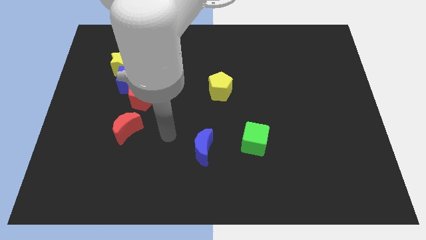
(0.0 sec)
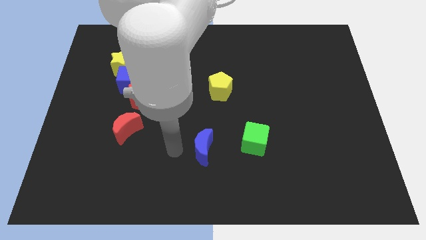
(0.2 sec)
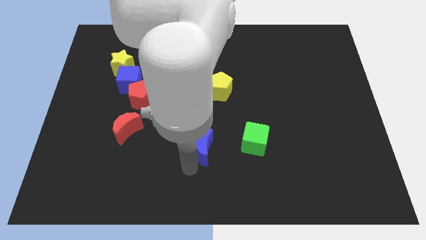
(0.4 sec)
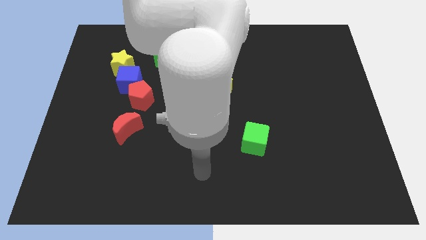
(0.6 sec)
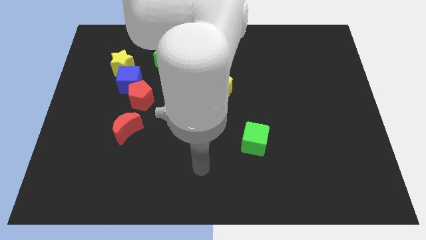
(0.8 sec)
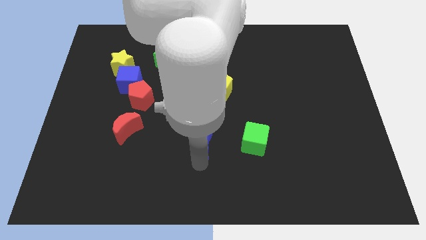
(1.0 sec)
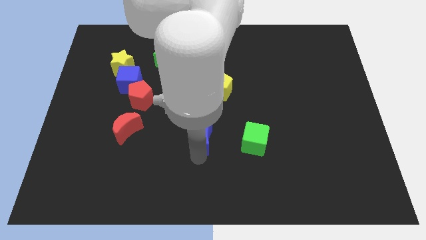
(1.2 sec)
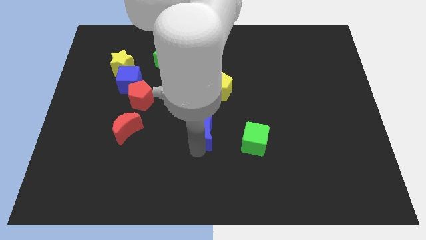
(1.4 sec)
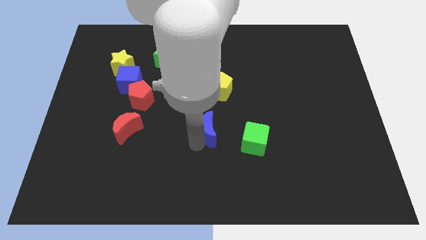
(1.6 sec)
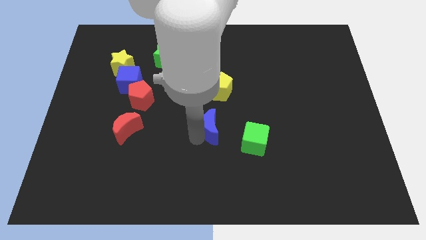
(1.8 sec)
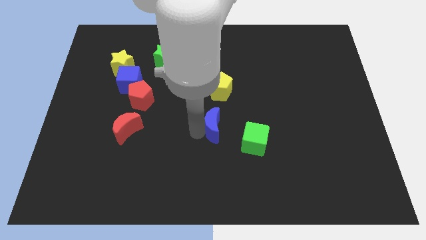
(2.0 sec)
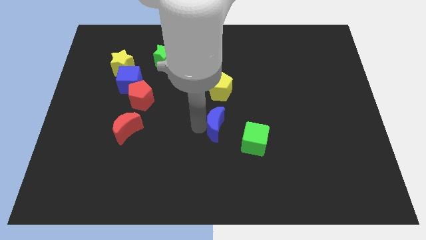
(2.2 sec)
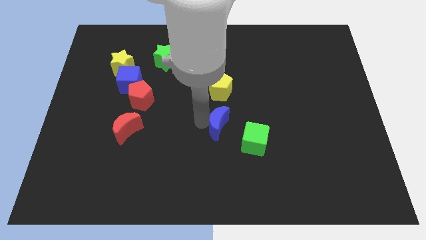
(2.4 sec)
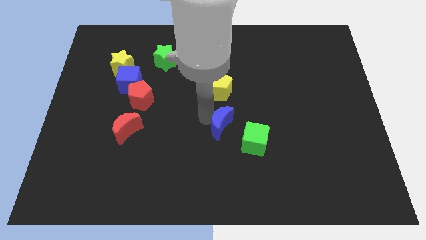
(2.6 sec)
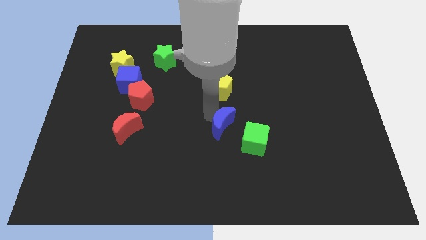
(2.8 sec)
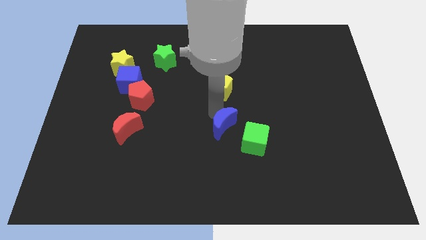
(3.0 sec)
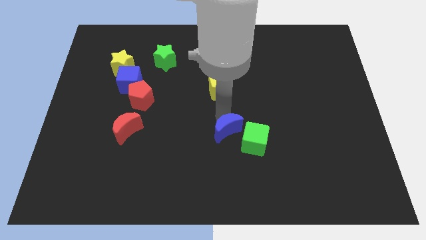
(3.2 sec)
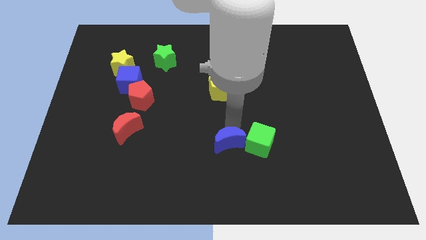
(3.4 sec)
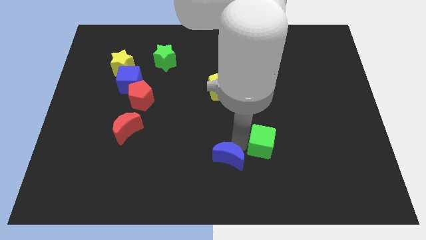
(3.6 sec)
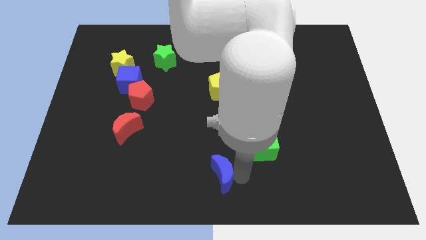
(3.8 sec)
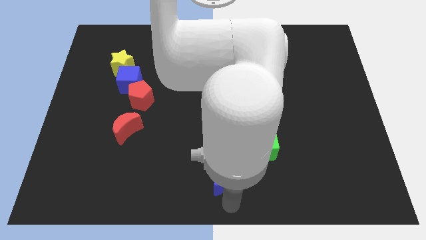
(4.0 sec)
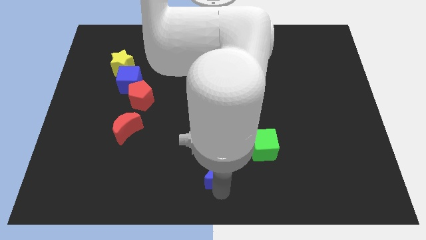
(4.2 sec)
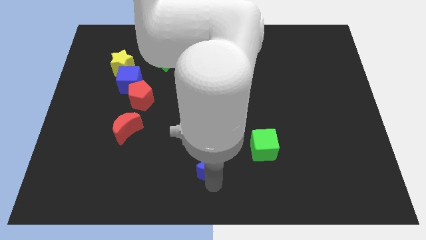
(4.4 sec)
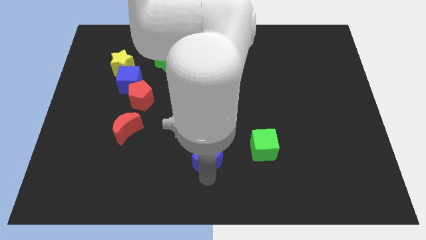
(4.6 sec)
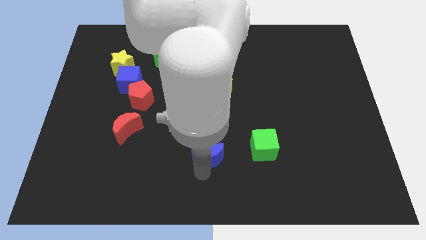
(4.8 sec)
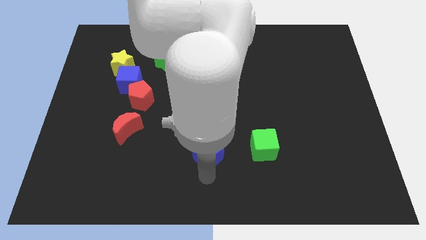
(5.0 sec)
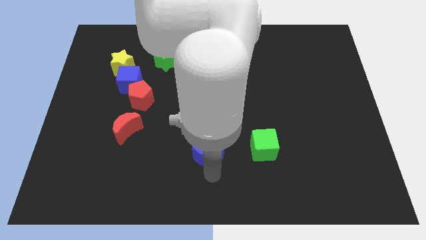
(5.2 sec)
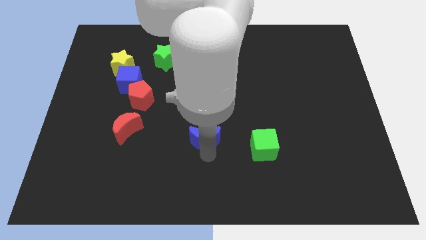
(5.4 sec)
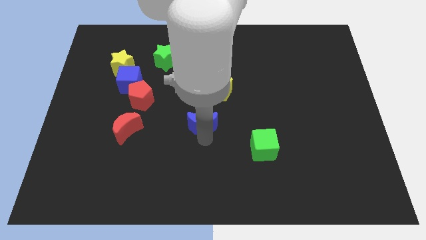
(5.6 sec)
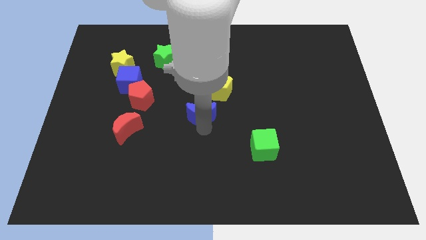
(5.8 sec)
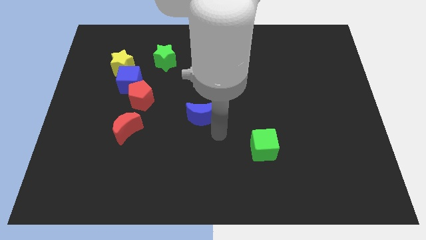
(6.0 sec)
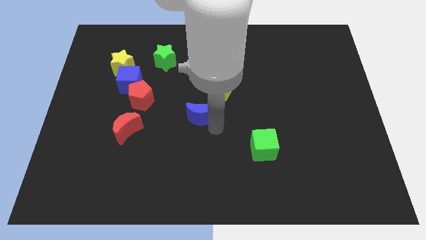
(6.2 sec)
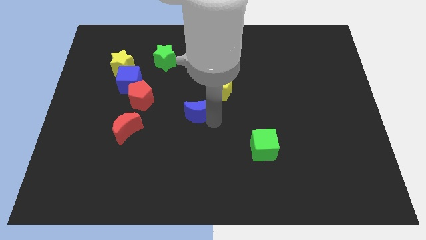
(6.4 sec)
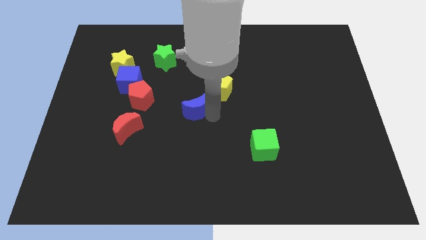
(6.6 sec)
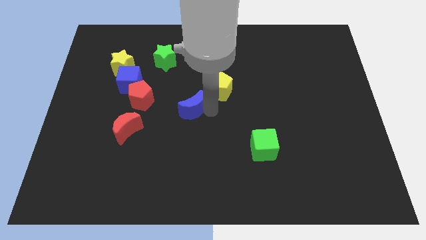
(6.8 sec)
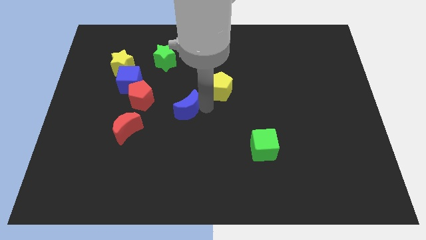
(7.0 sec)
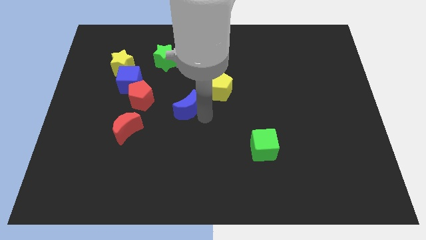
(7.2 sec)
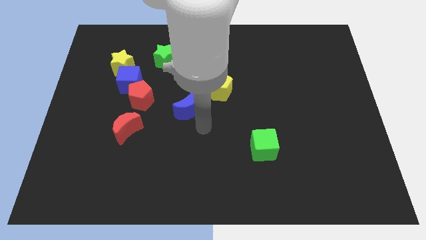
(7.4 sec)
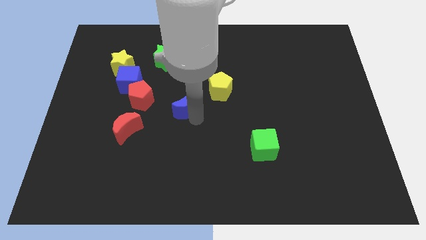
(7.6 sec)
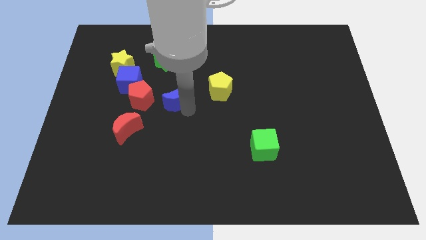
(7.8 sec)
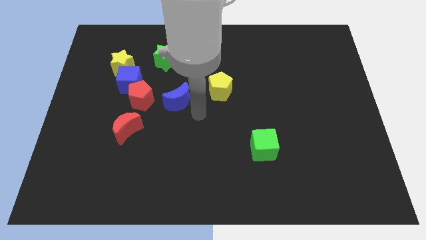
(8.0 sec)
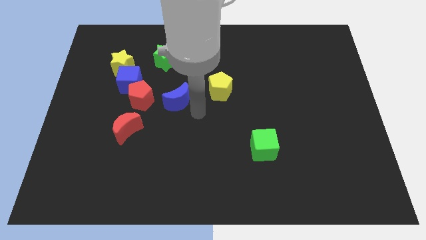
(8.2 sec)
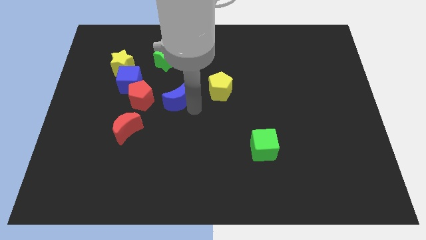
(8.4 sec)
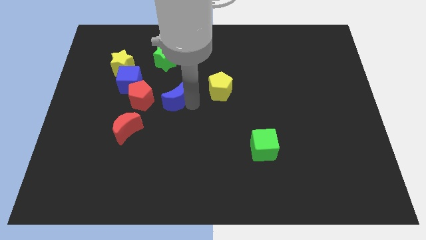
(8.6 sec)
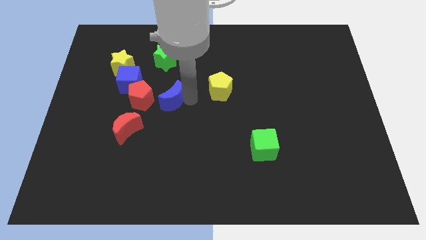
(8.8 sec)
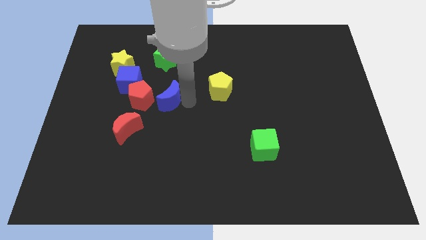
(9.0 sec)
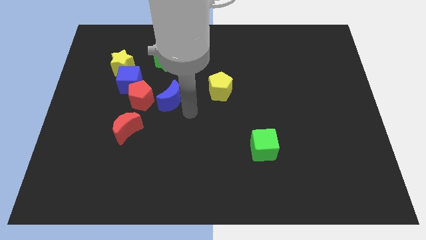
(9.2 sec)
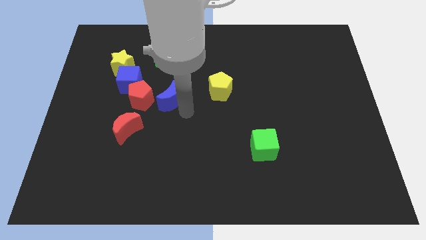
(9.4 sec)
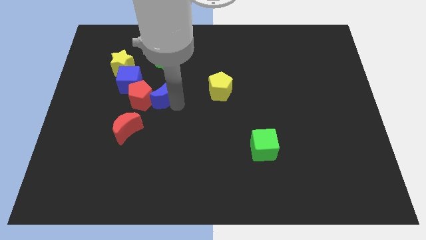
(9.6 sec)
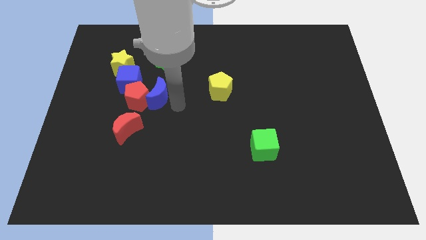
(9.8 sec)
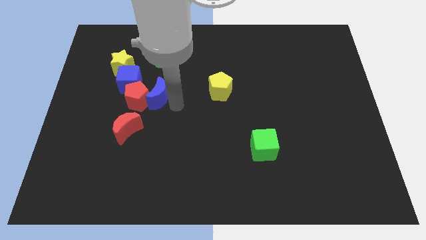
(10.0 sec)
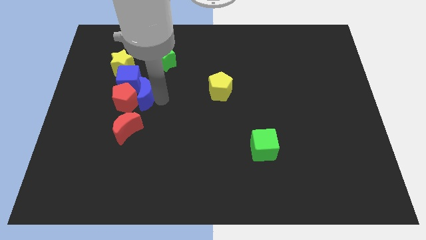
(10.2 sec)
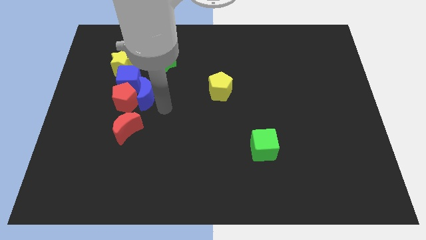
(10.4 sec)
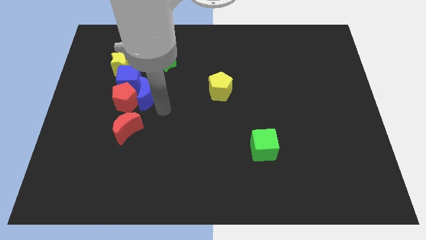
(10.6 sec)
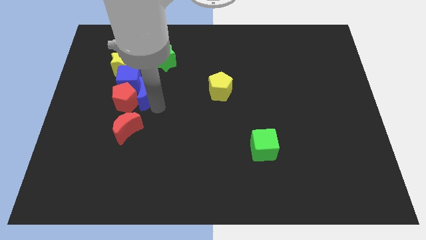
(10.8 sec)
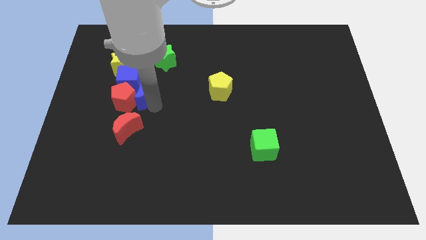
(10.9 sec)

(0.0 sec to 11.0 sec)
push the blue moon close to the blue cube
